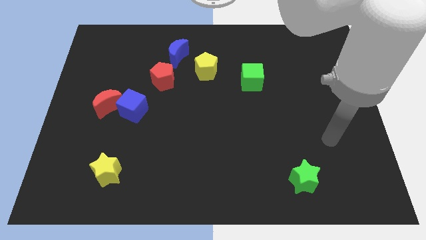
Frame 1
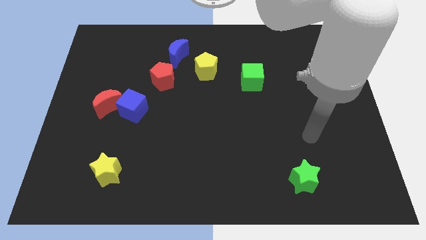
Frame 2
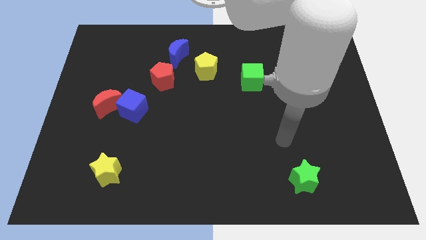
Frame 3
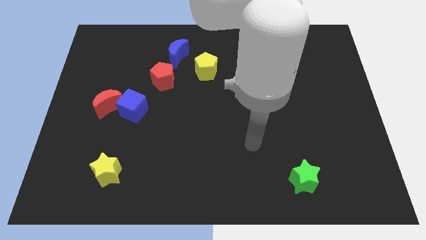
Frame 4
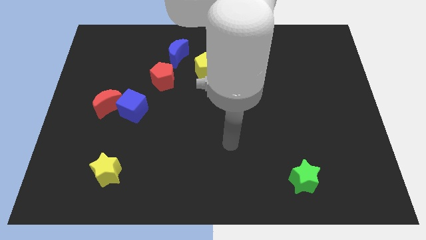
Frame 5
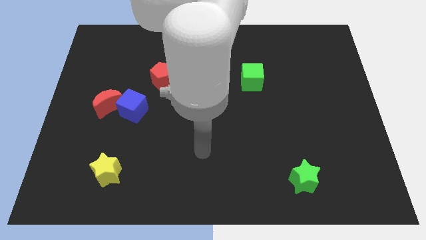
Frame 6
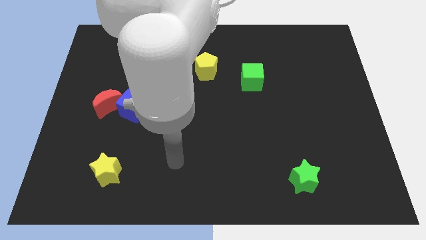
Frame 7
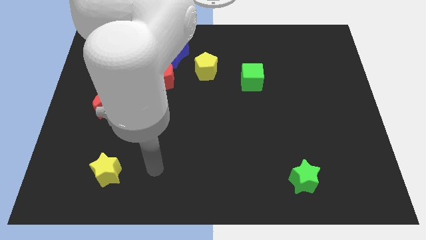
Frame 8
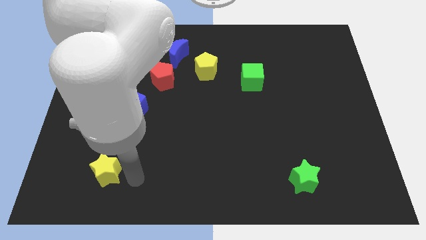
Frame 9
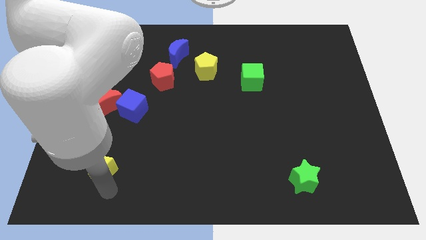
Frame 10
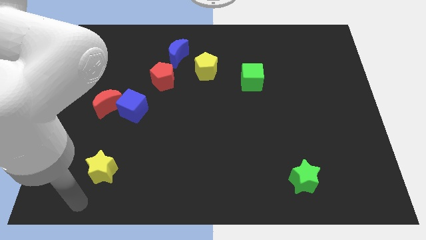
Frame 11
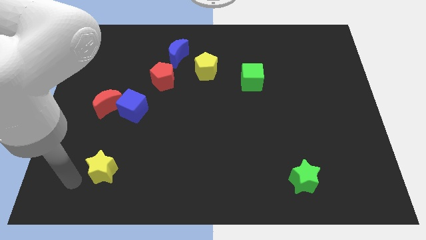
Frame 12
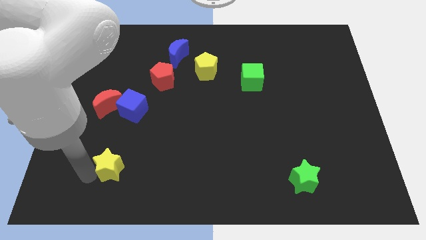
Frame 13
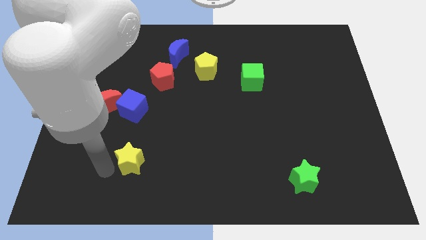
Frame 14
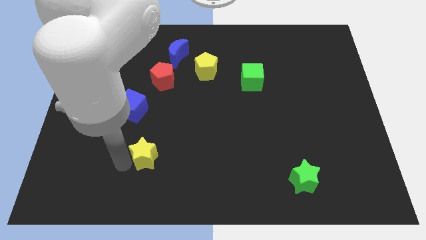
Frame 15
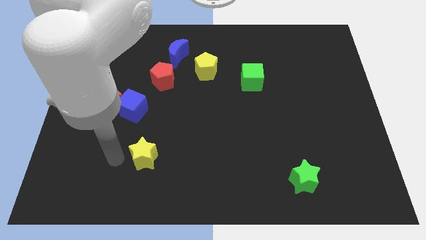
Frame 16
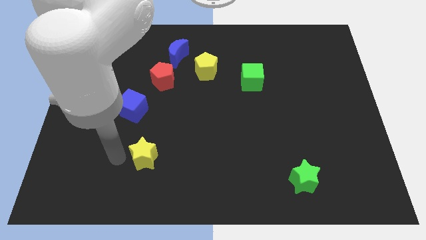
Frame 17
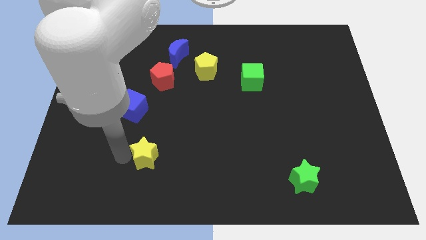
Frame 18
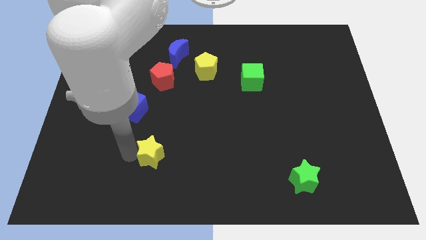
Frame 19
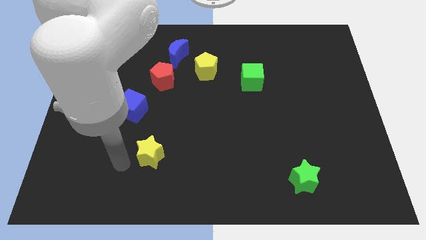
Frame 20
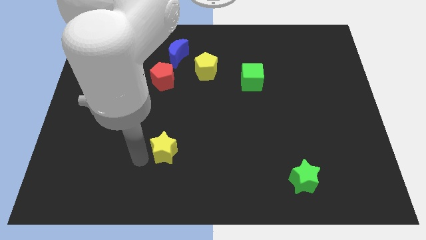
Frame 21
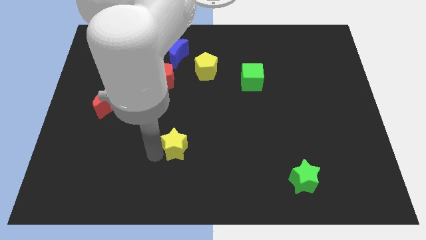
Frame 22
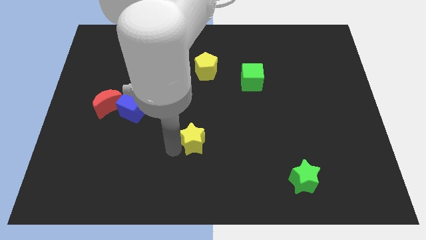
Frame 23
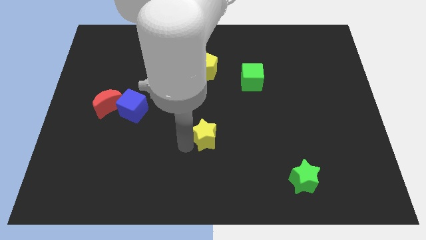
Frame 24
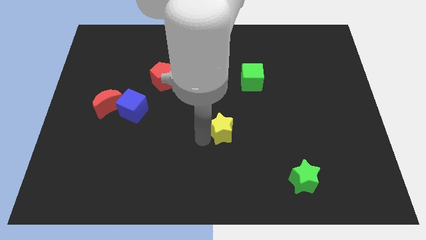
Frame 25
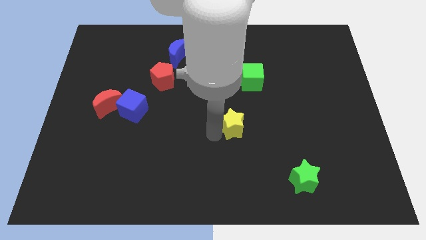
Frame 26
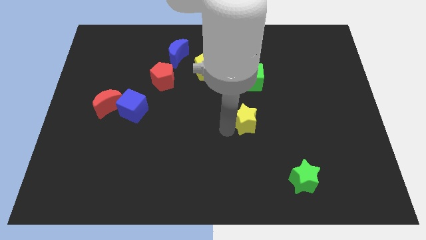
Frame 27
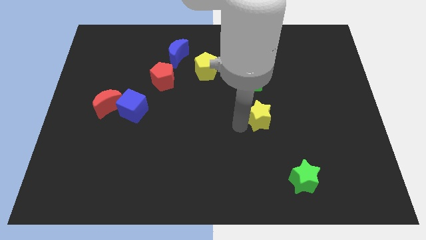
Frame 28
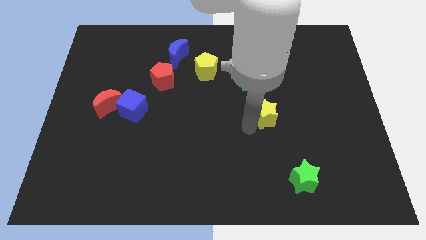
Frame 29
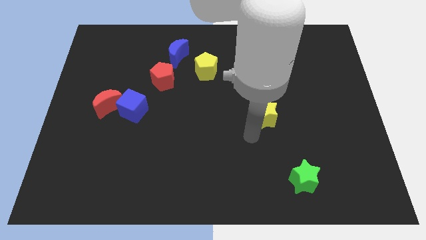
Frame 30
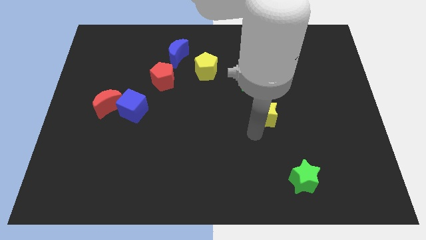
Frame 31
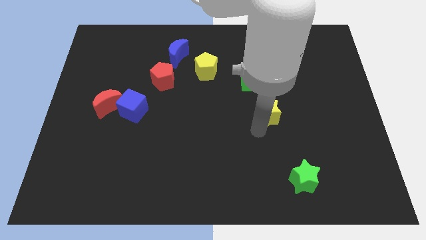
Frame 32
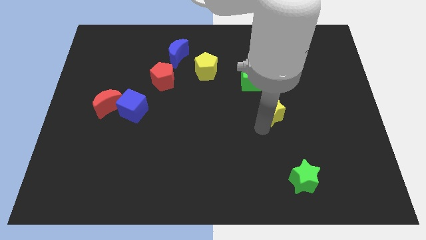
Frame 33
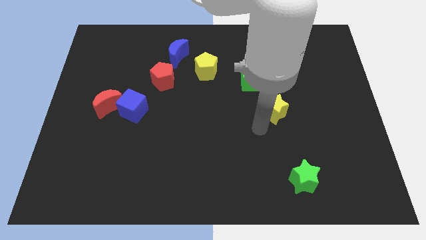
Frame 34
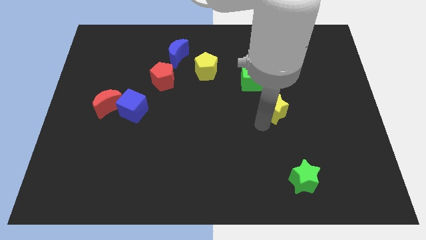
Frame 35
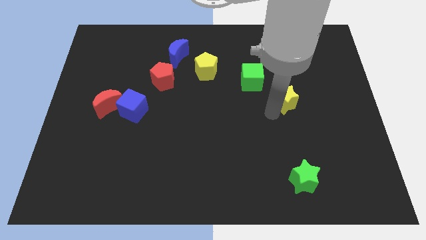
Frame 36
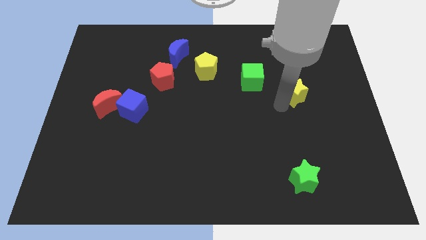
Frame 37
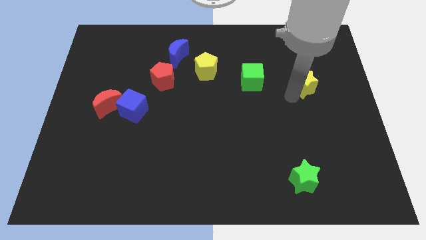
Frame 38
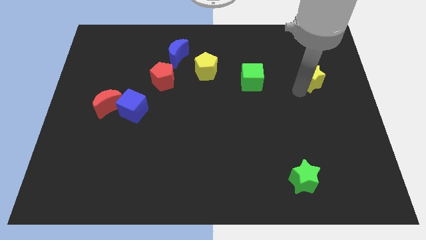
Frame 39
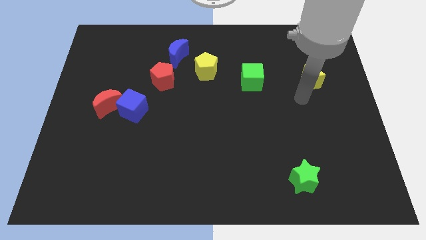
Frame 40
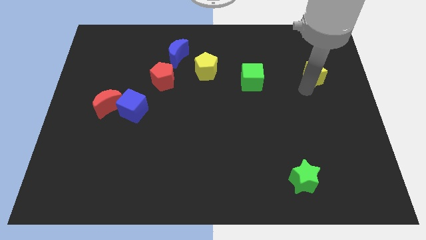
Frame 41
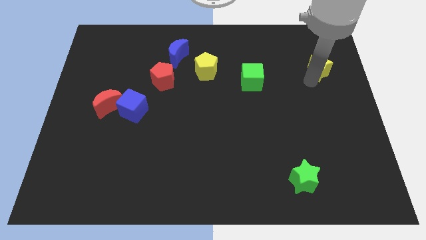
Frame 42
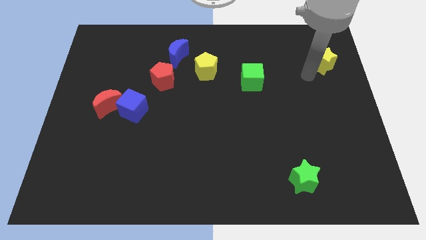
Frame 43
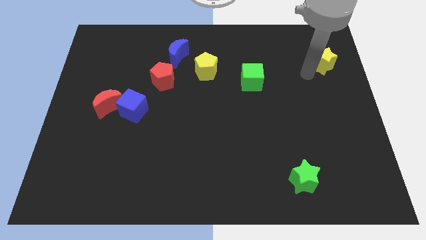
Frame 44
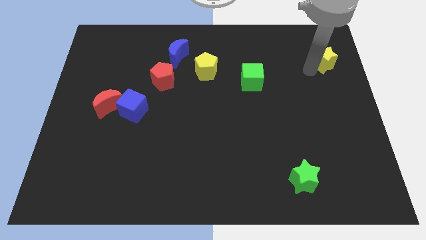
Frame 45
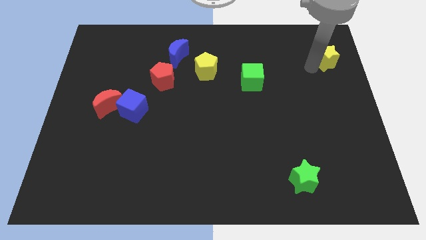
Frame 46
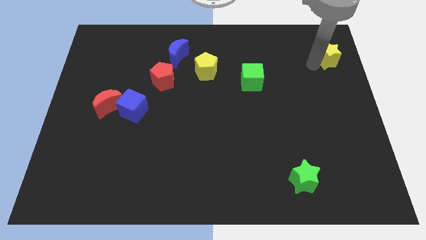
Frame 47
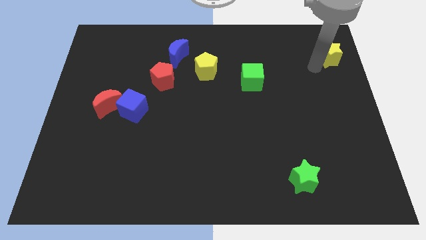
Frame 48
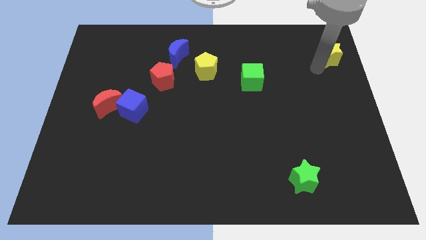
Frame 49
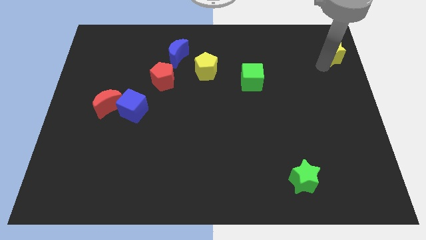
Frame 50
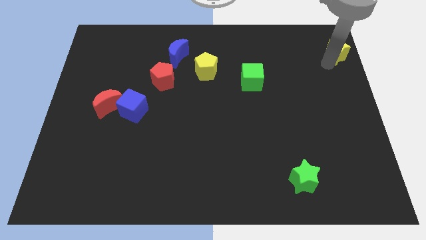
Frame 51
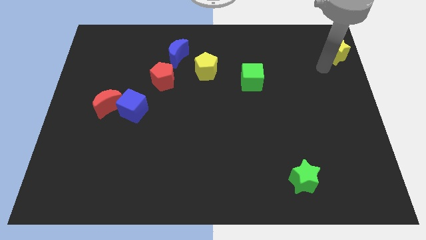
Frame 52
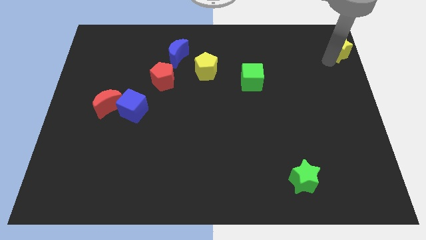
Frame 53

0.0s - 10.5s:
slide the yellow star to the top right corner

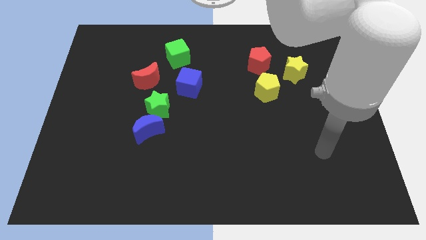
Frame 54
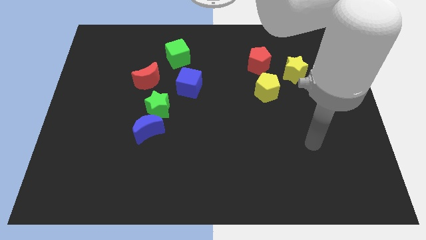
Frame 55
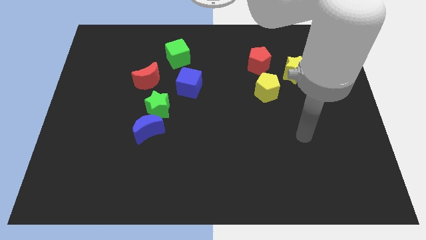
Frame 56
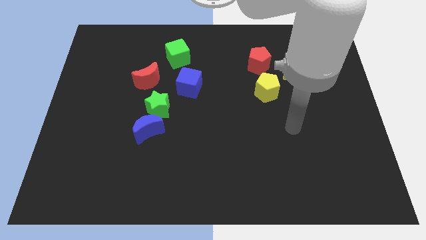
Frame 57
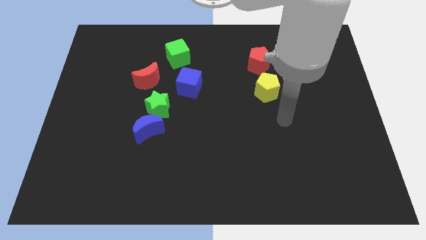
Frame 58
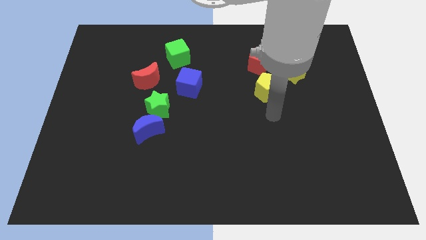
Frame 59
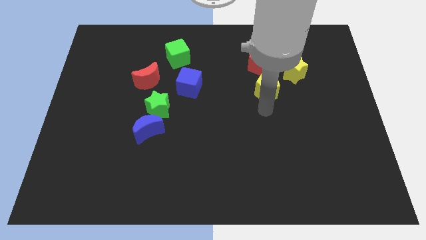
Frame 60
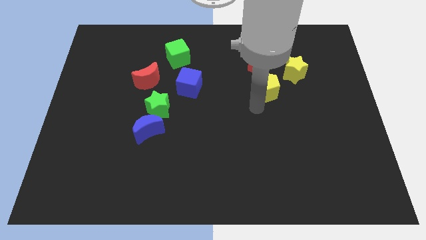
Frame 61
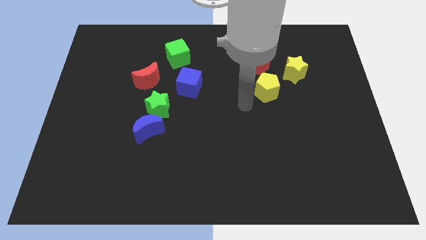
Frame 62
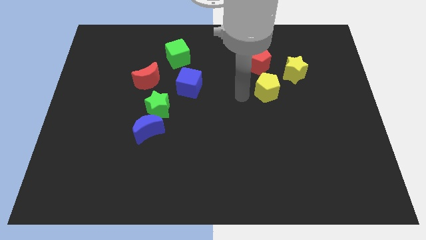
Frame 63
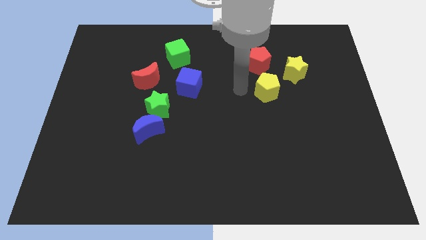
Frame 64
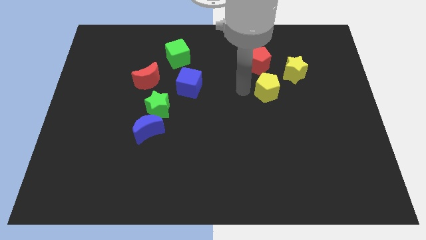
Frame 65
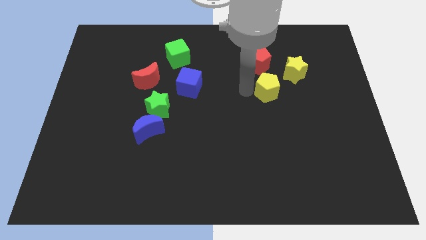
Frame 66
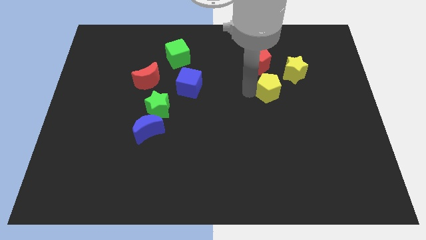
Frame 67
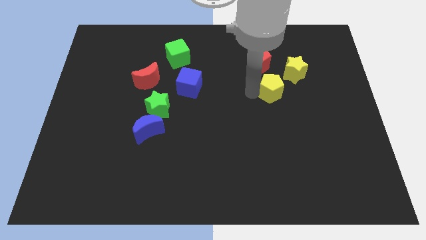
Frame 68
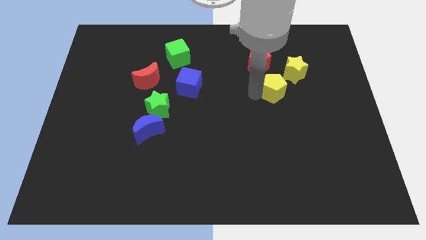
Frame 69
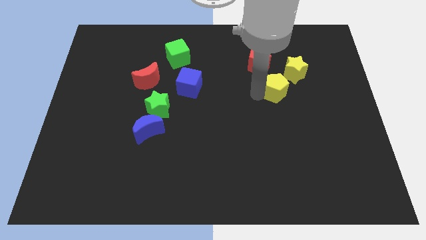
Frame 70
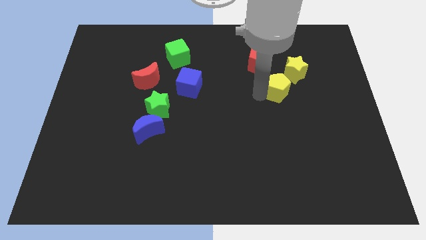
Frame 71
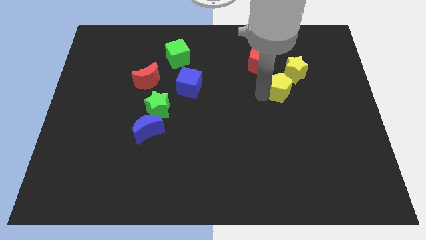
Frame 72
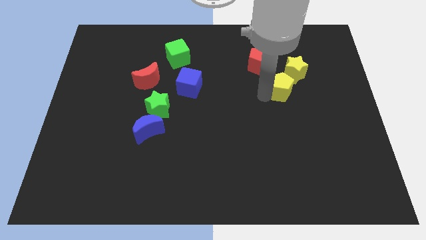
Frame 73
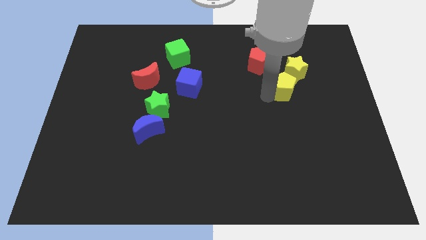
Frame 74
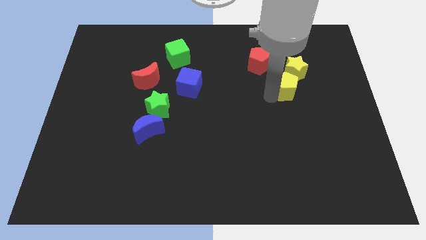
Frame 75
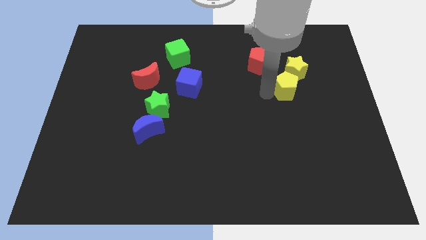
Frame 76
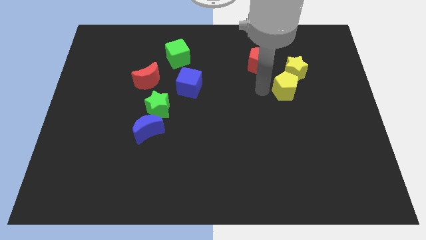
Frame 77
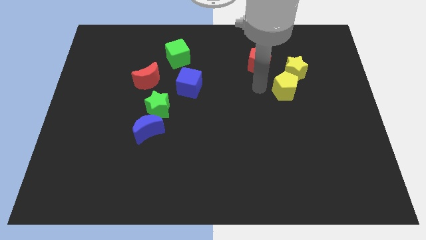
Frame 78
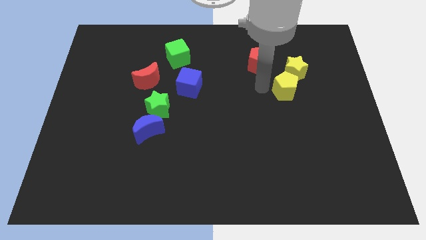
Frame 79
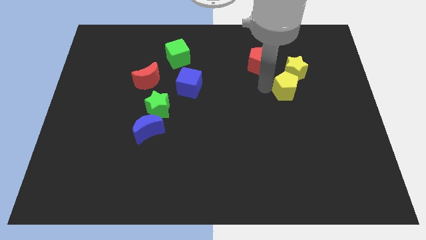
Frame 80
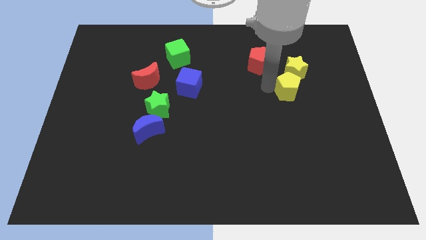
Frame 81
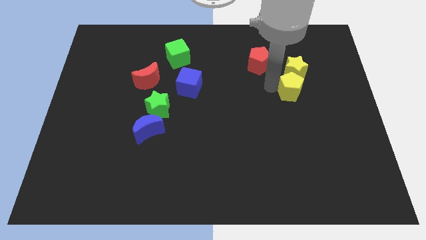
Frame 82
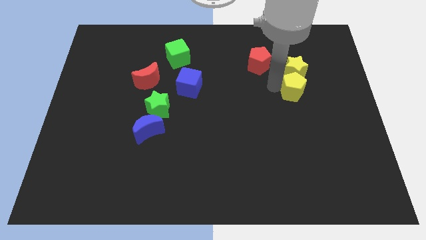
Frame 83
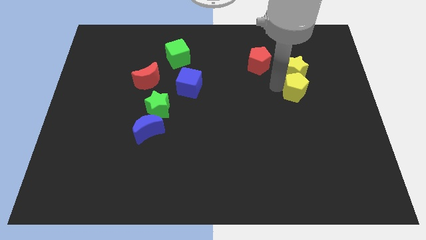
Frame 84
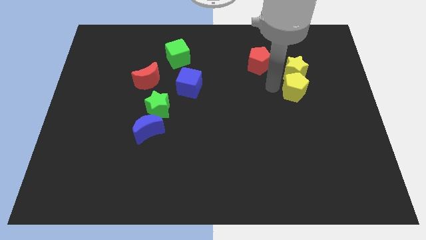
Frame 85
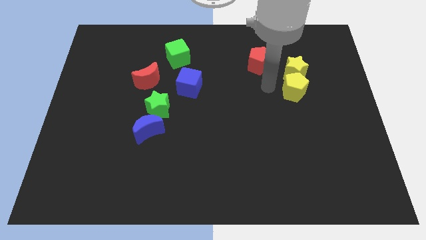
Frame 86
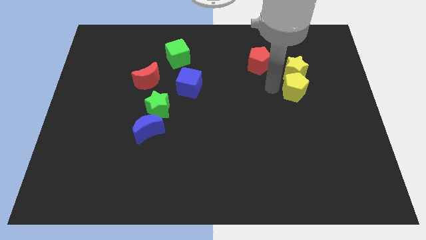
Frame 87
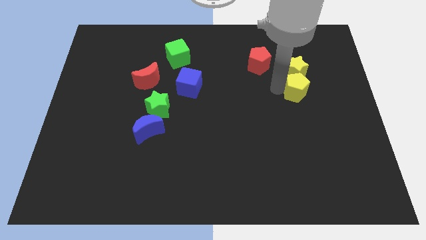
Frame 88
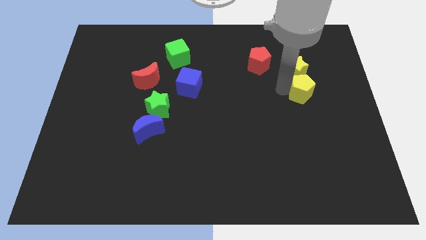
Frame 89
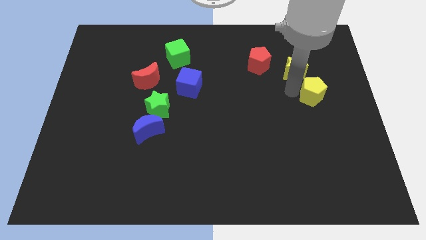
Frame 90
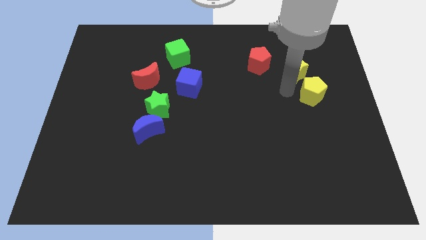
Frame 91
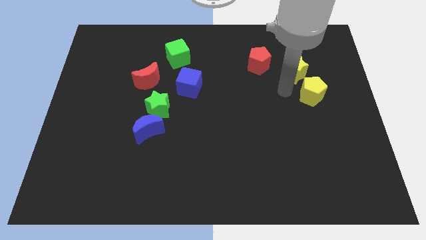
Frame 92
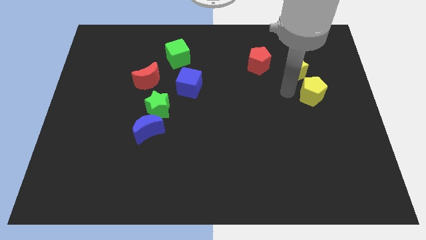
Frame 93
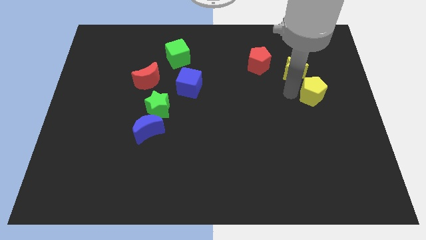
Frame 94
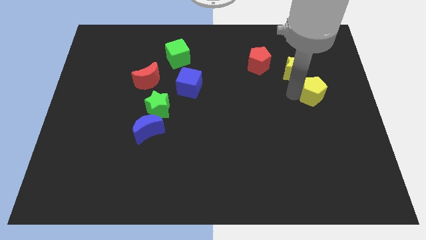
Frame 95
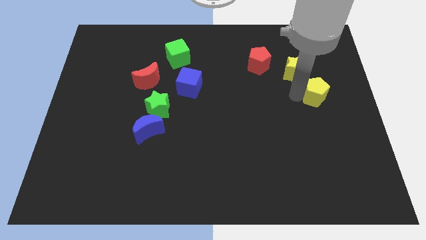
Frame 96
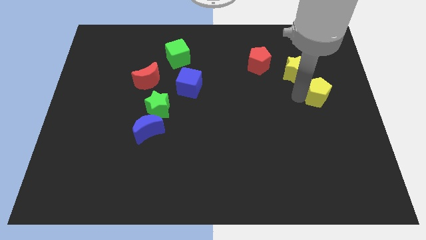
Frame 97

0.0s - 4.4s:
slide the yellow pentagon to the right side of the board
